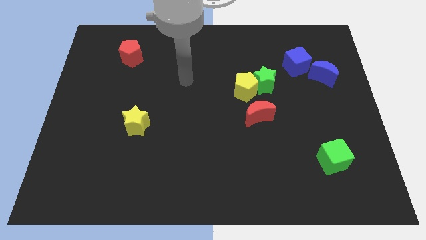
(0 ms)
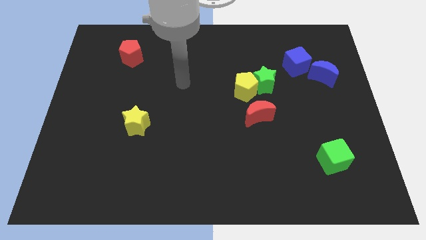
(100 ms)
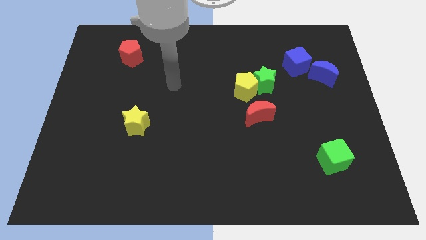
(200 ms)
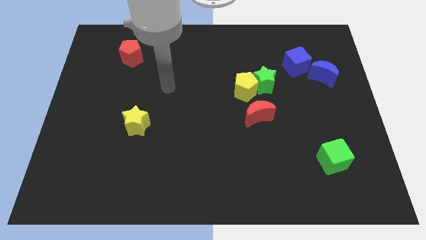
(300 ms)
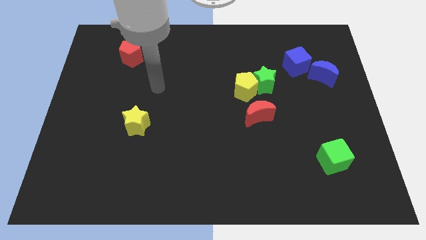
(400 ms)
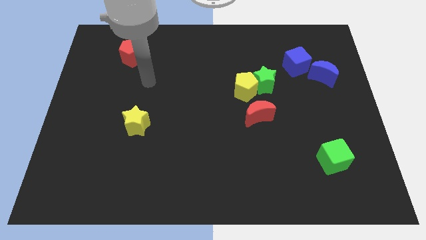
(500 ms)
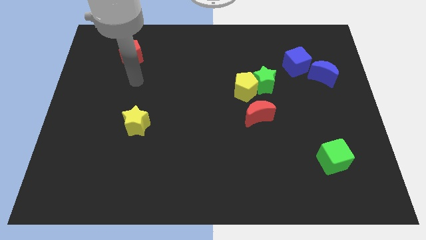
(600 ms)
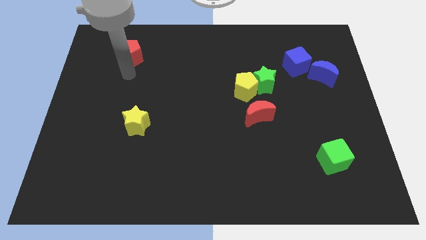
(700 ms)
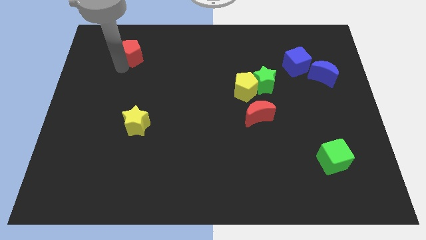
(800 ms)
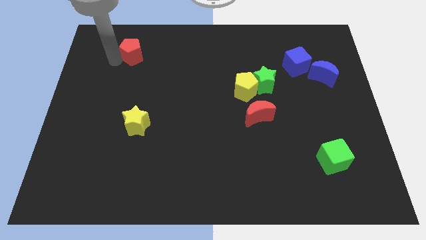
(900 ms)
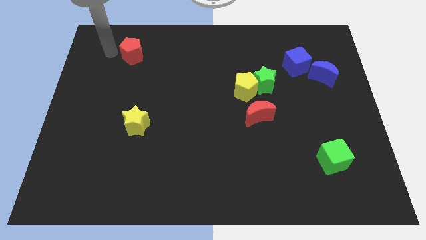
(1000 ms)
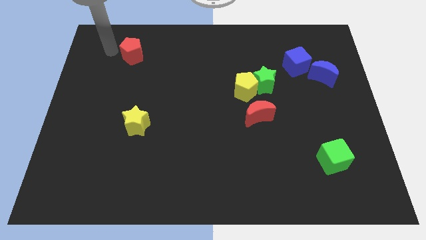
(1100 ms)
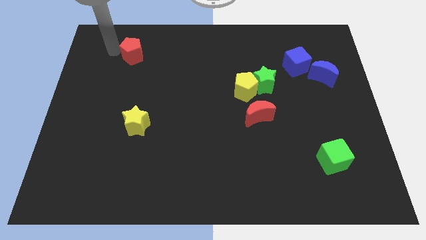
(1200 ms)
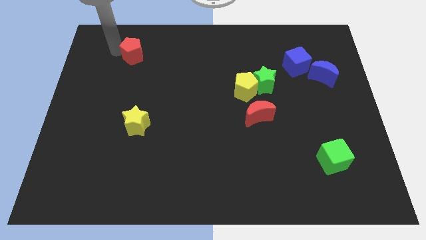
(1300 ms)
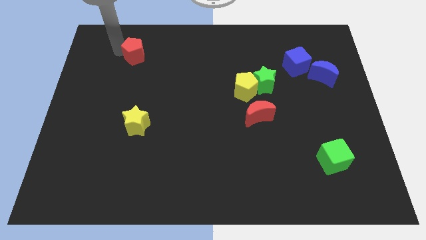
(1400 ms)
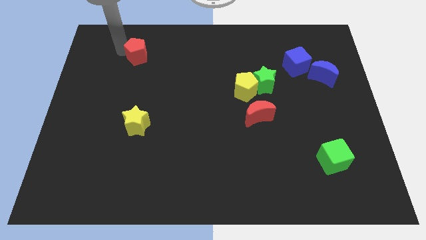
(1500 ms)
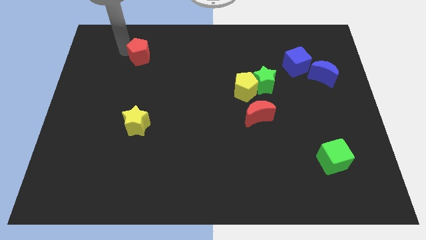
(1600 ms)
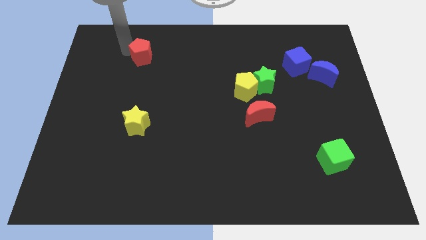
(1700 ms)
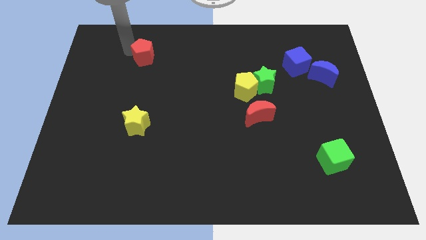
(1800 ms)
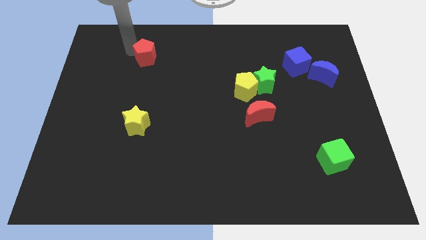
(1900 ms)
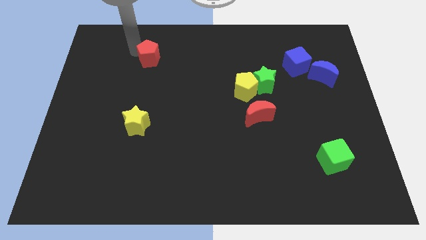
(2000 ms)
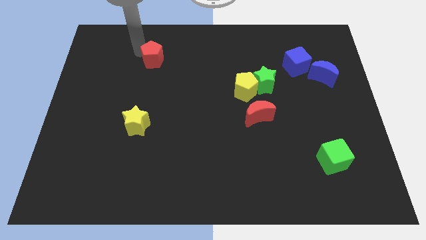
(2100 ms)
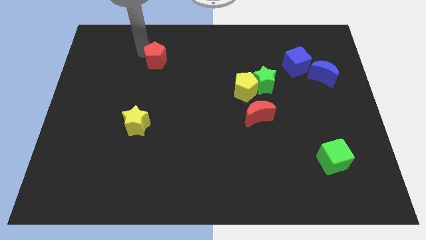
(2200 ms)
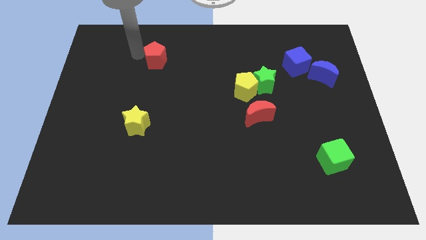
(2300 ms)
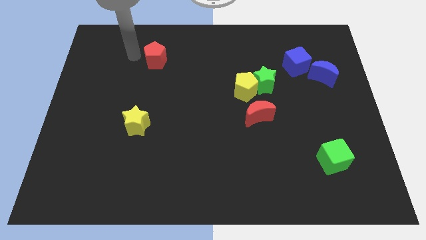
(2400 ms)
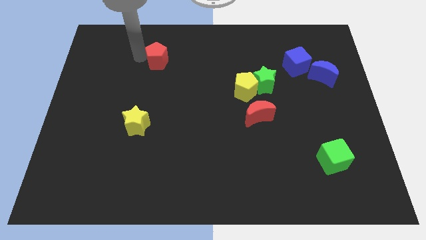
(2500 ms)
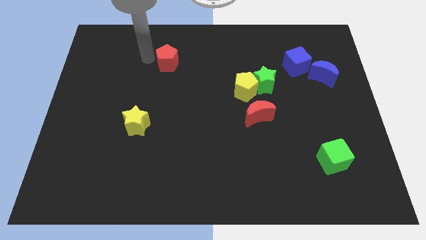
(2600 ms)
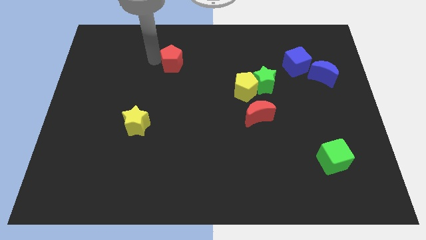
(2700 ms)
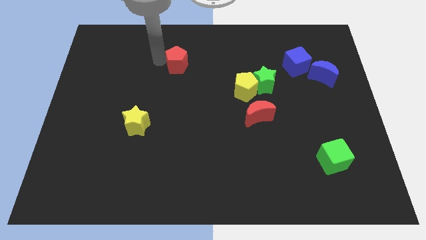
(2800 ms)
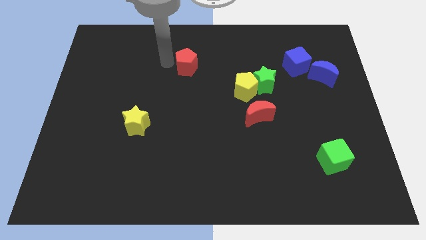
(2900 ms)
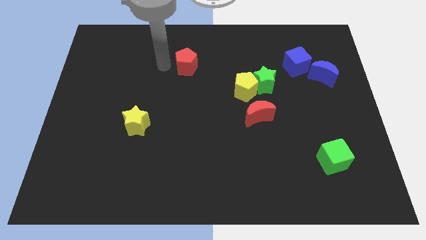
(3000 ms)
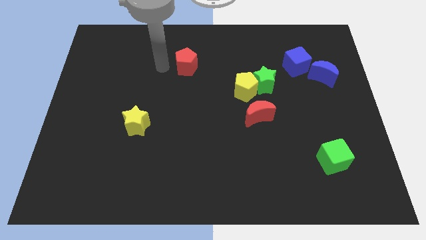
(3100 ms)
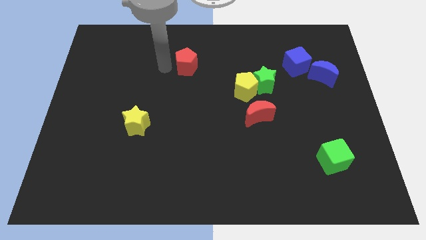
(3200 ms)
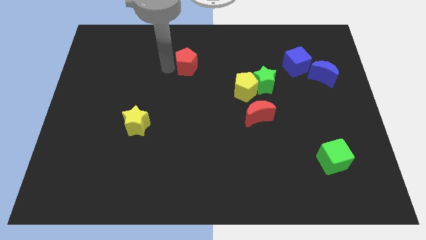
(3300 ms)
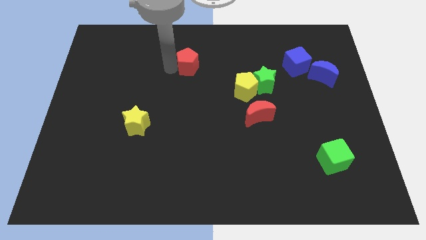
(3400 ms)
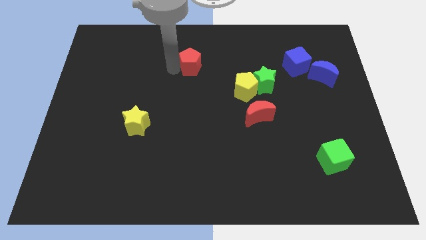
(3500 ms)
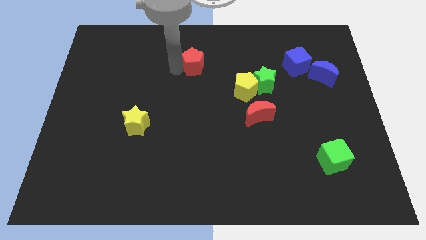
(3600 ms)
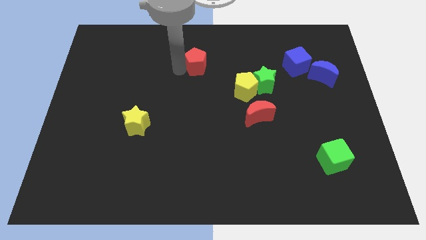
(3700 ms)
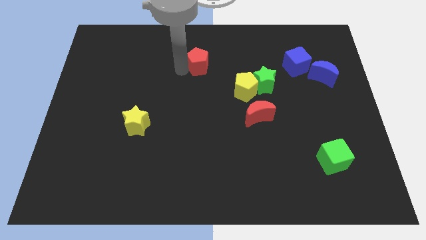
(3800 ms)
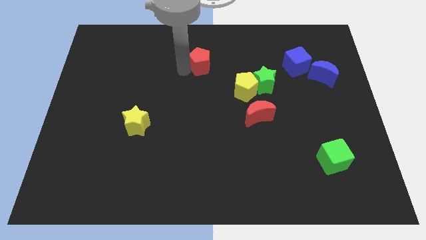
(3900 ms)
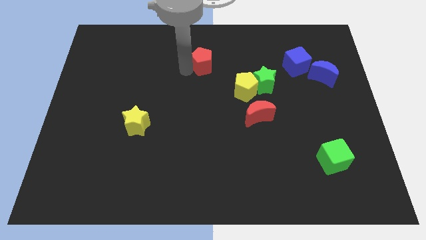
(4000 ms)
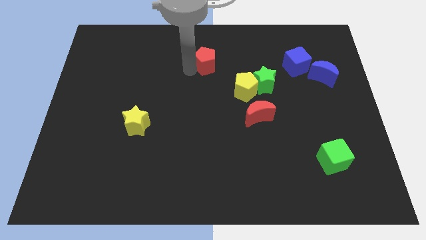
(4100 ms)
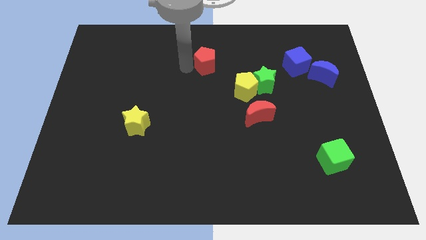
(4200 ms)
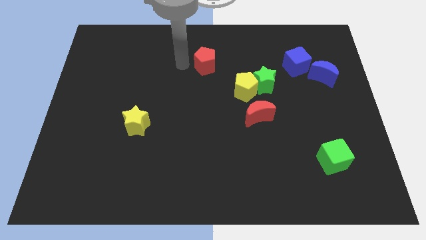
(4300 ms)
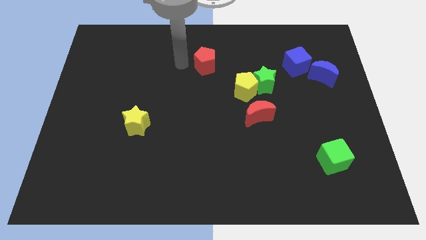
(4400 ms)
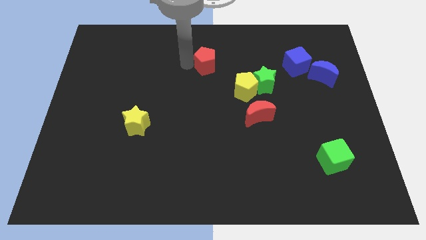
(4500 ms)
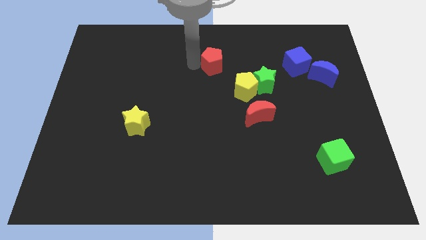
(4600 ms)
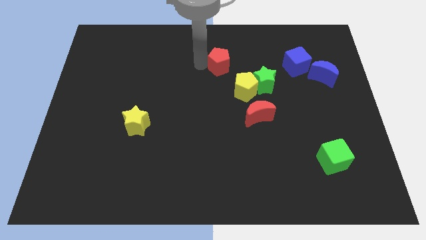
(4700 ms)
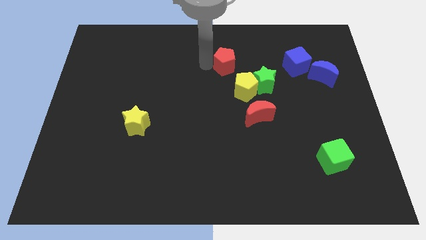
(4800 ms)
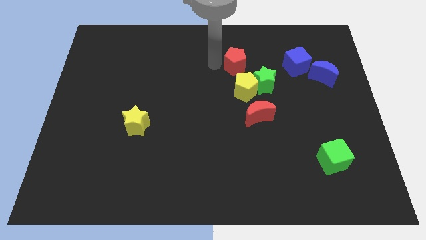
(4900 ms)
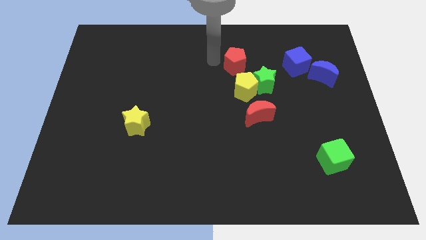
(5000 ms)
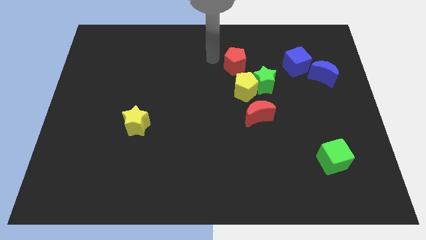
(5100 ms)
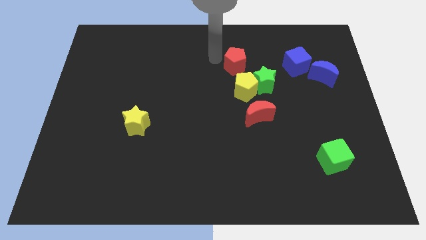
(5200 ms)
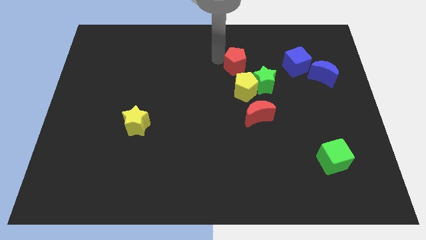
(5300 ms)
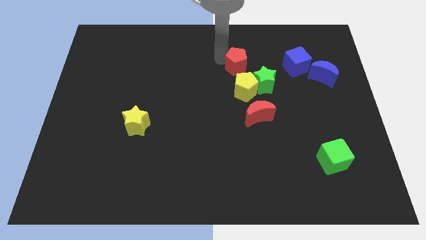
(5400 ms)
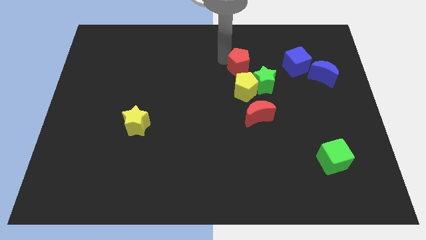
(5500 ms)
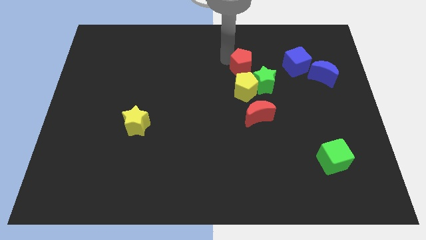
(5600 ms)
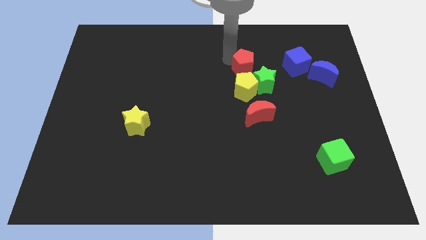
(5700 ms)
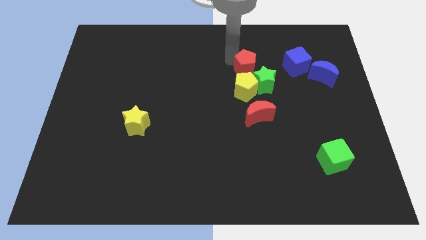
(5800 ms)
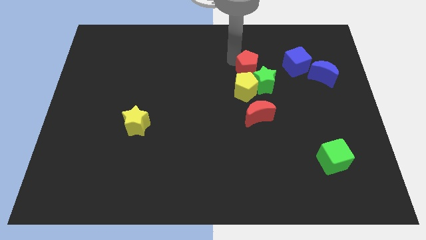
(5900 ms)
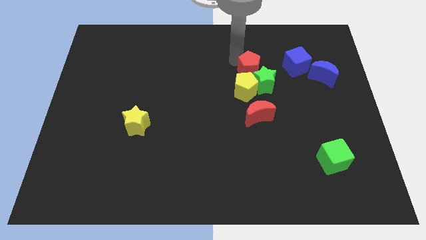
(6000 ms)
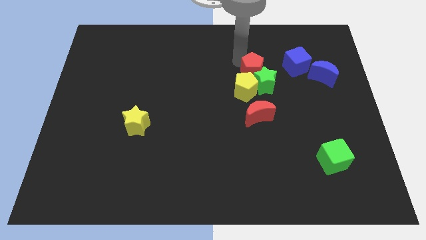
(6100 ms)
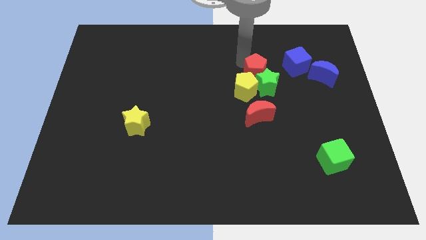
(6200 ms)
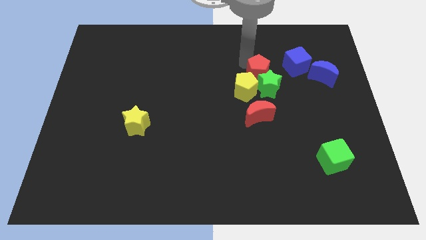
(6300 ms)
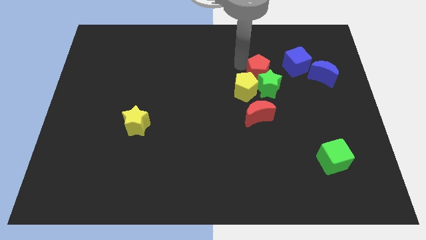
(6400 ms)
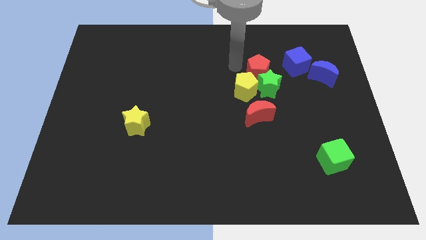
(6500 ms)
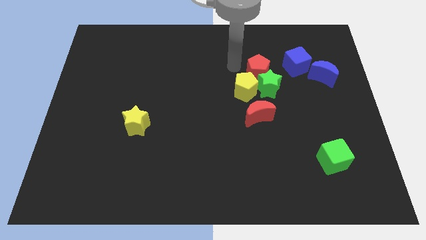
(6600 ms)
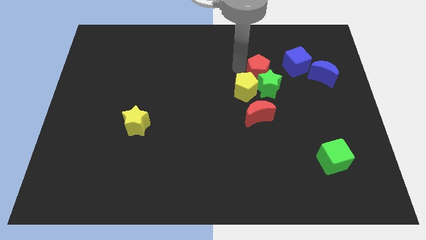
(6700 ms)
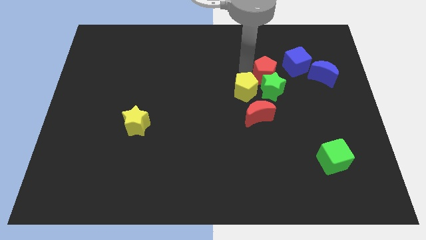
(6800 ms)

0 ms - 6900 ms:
move the red pentagon to the right side of the yellow pentagon
